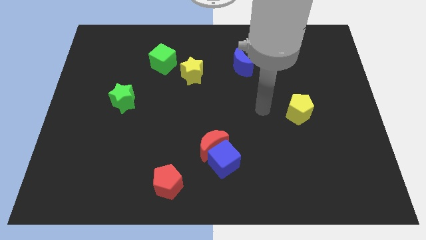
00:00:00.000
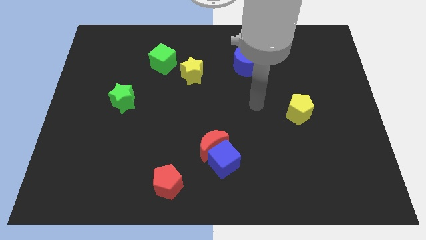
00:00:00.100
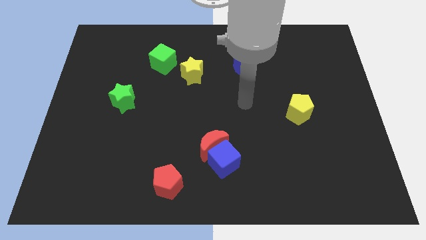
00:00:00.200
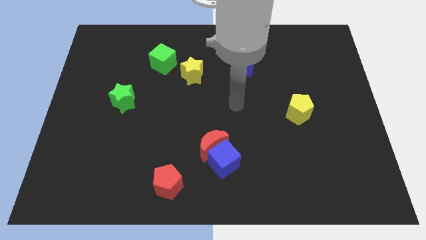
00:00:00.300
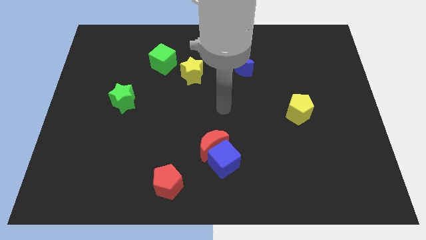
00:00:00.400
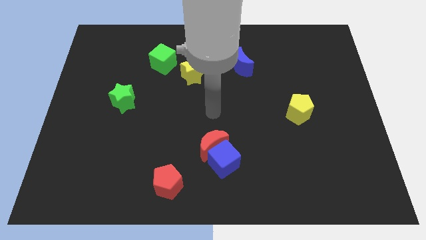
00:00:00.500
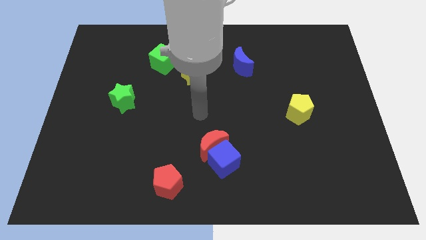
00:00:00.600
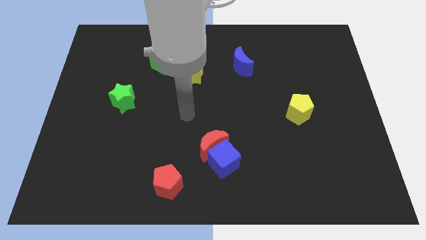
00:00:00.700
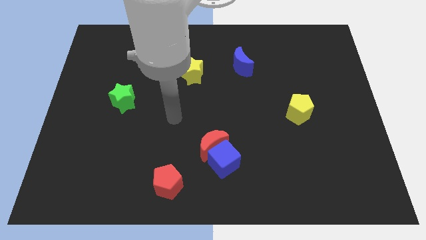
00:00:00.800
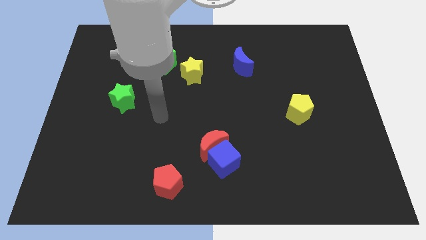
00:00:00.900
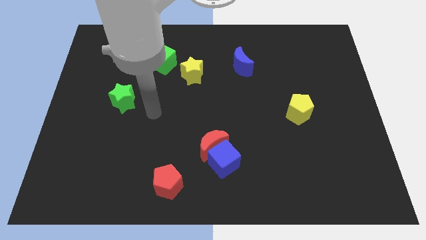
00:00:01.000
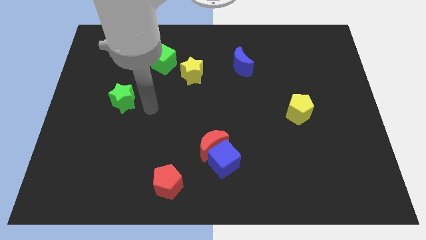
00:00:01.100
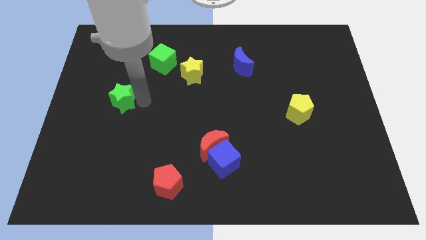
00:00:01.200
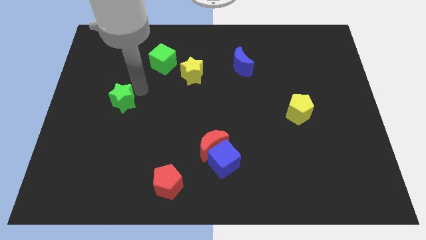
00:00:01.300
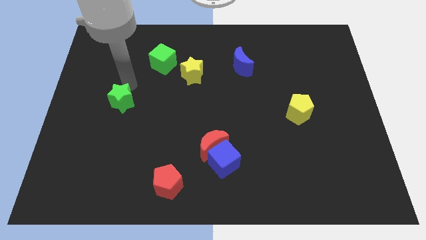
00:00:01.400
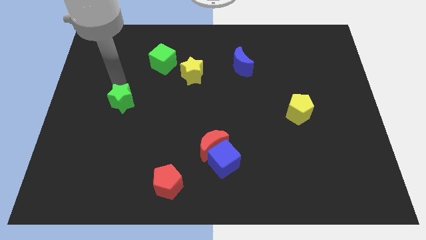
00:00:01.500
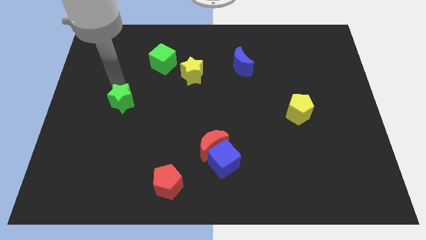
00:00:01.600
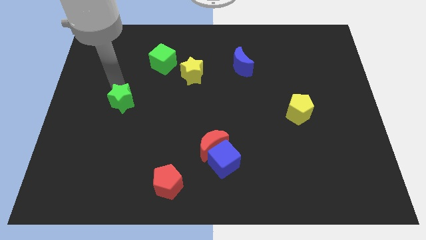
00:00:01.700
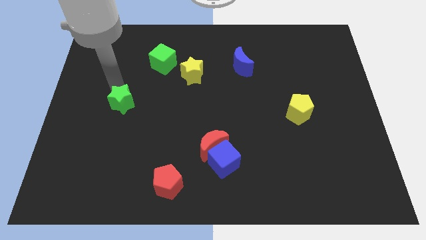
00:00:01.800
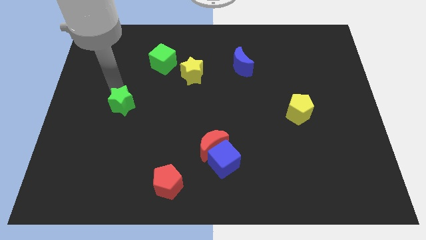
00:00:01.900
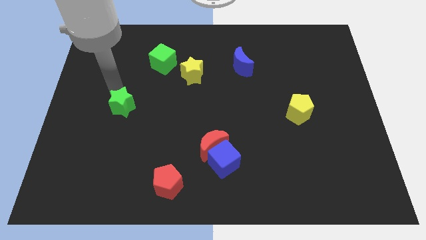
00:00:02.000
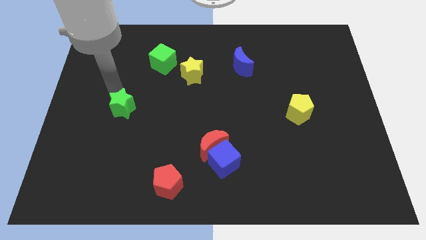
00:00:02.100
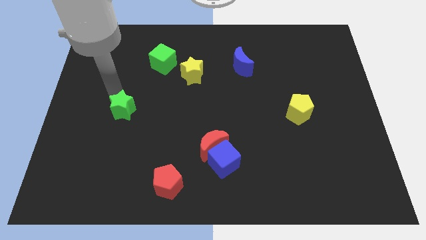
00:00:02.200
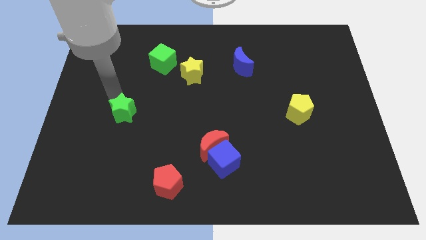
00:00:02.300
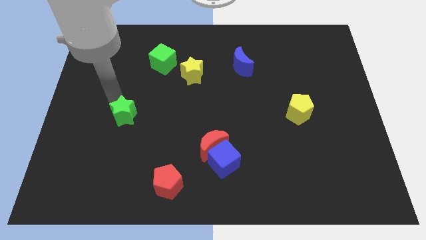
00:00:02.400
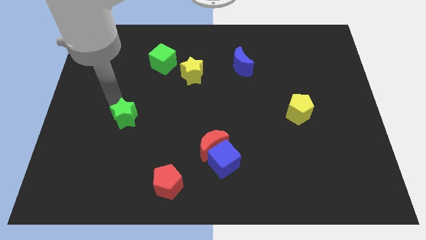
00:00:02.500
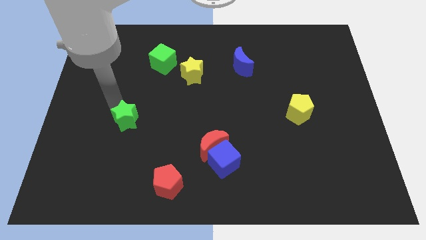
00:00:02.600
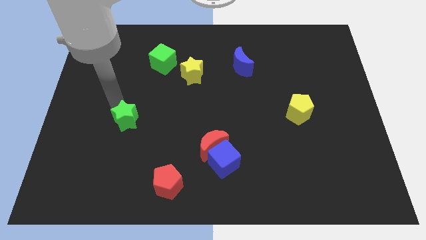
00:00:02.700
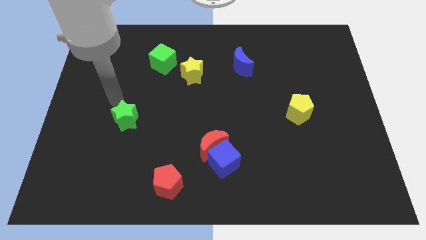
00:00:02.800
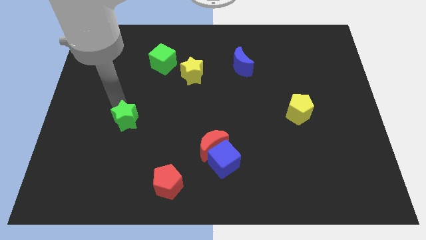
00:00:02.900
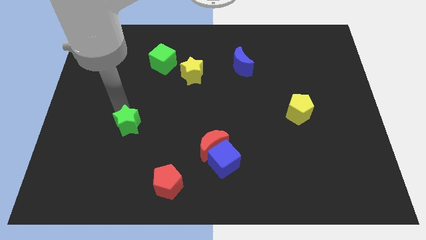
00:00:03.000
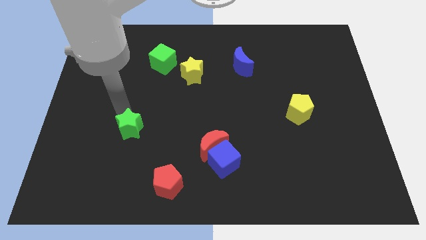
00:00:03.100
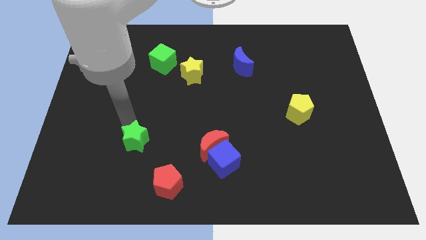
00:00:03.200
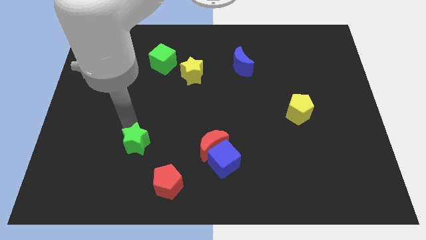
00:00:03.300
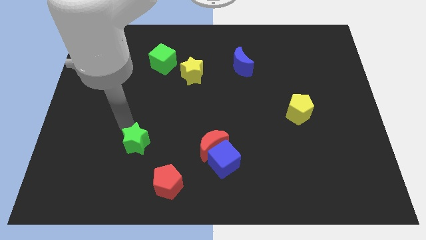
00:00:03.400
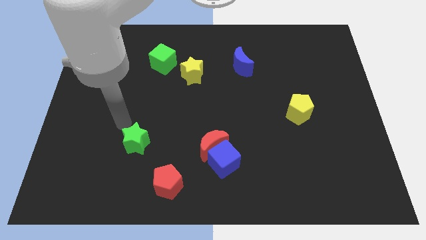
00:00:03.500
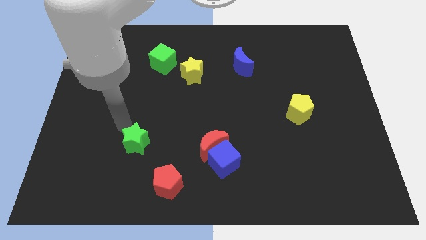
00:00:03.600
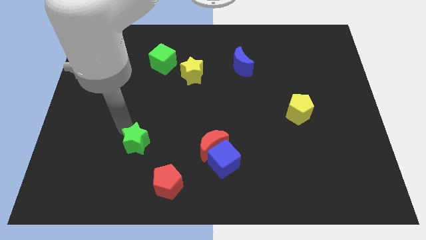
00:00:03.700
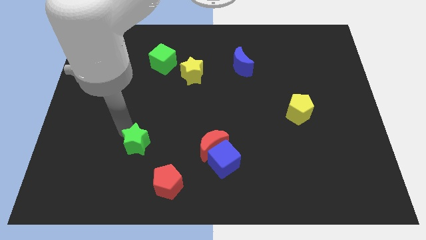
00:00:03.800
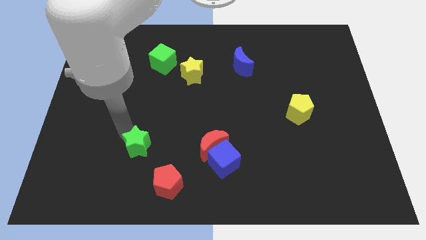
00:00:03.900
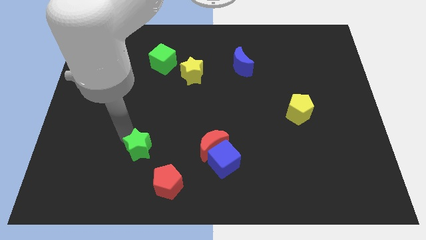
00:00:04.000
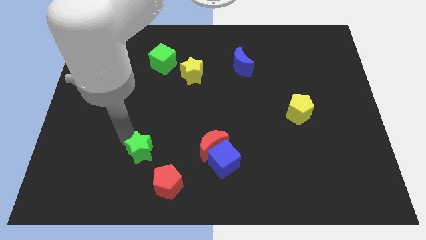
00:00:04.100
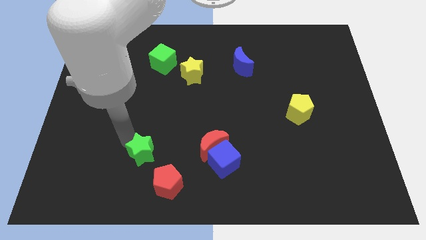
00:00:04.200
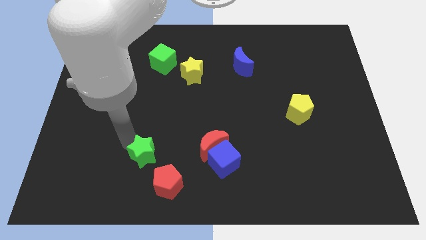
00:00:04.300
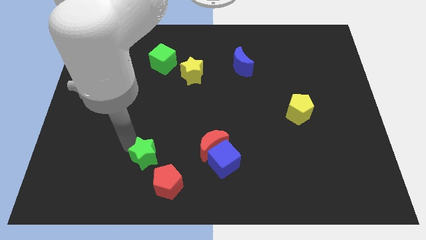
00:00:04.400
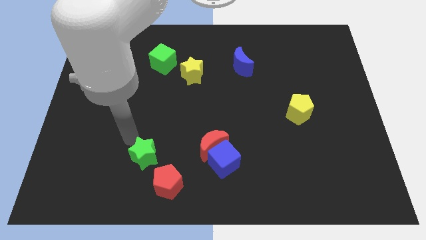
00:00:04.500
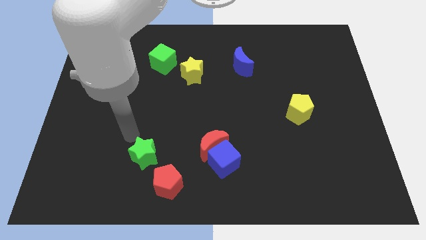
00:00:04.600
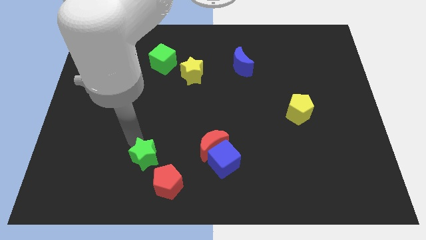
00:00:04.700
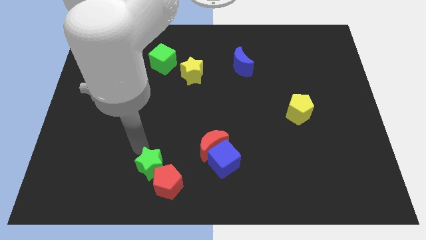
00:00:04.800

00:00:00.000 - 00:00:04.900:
move the green star close to the red pentagon

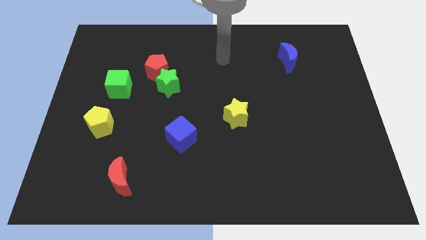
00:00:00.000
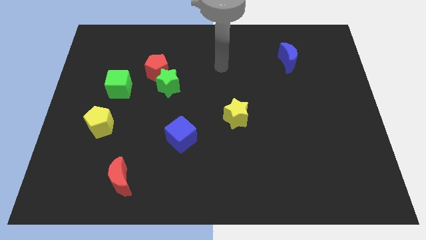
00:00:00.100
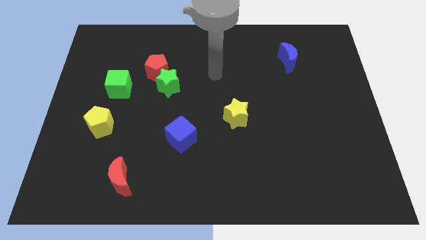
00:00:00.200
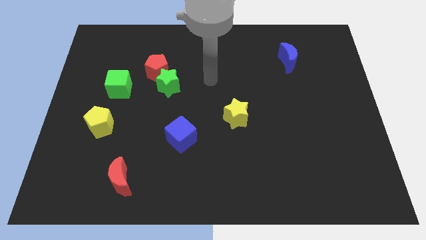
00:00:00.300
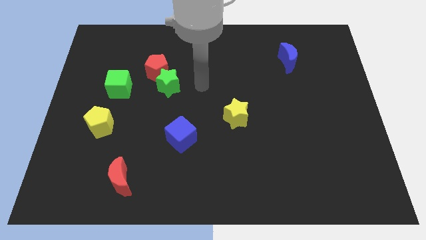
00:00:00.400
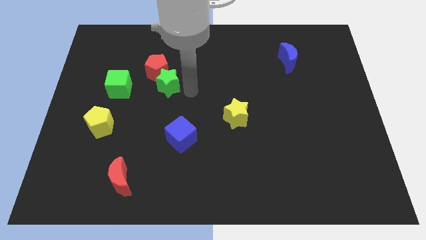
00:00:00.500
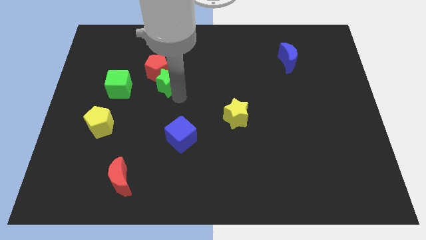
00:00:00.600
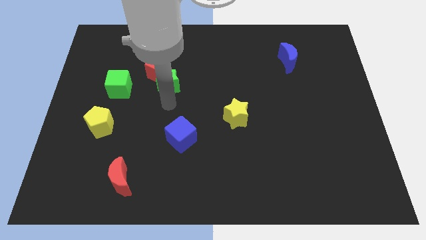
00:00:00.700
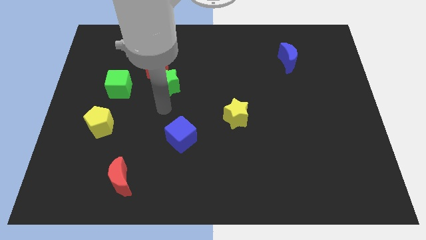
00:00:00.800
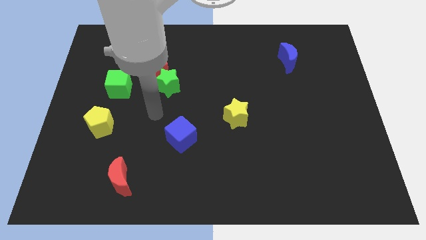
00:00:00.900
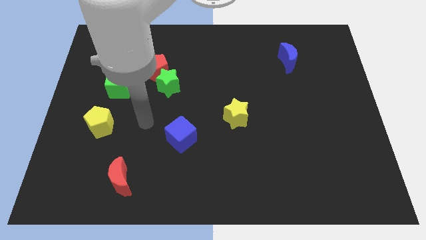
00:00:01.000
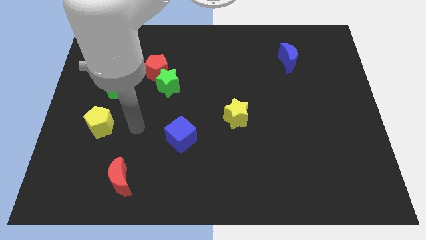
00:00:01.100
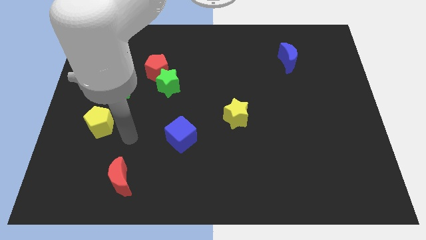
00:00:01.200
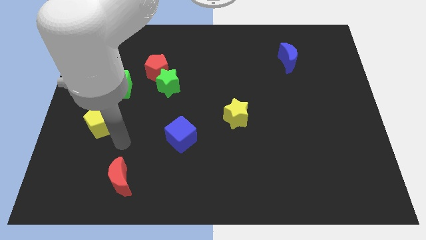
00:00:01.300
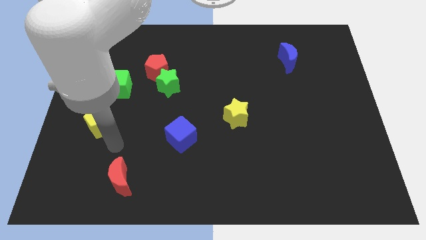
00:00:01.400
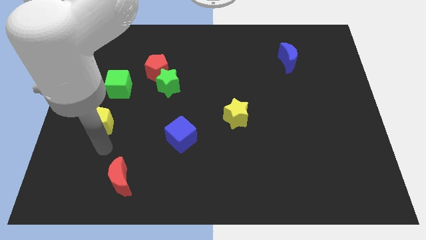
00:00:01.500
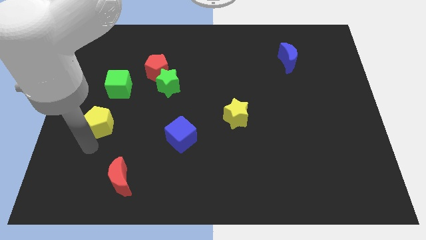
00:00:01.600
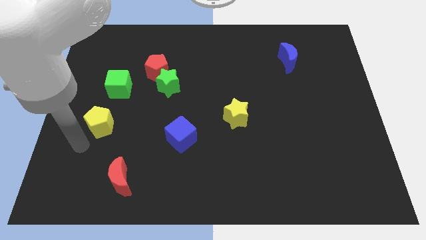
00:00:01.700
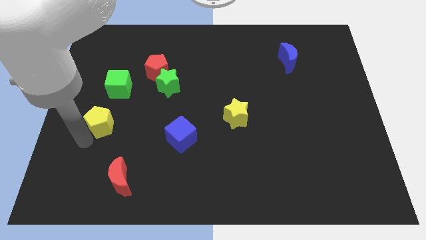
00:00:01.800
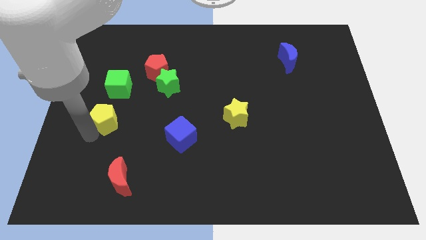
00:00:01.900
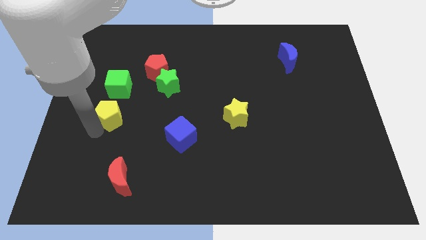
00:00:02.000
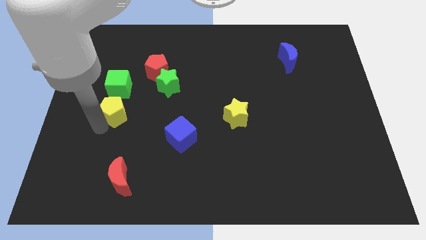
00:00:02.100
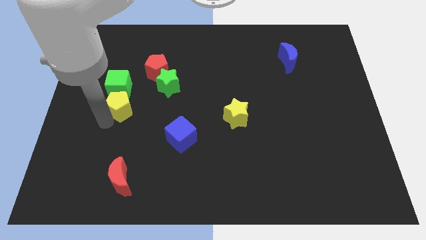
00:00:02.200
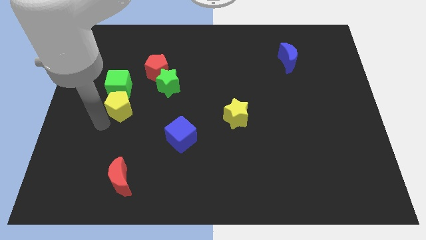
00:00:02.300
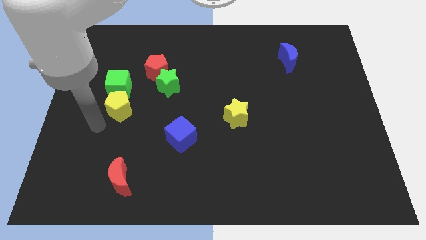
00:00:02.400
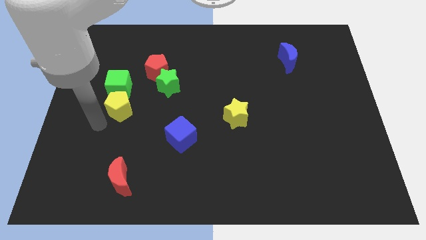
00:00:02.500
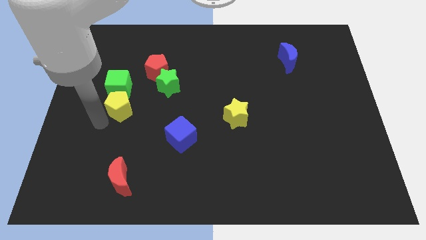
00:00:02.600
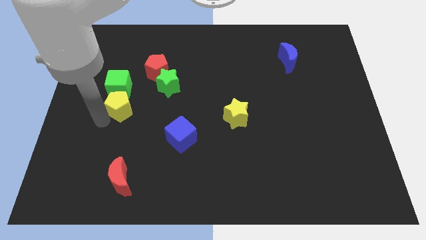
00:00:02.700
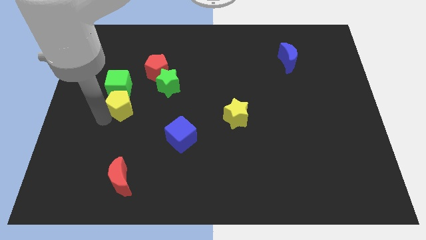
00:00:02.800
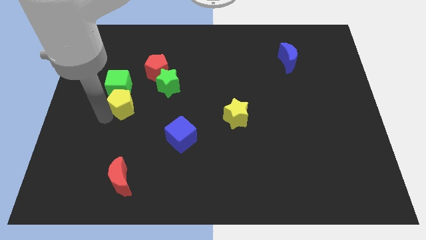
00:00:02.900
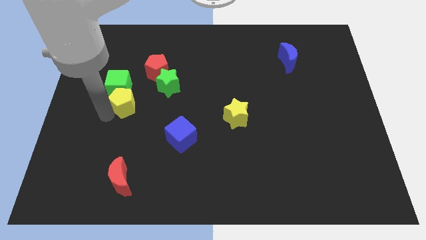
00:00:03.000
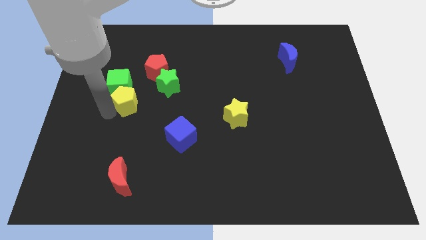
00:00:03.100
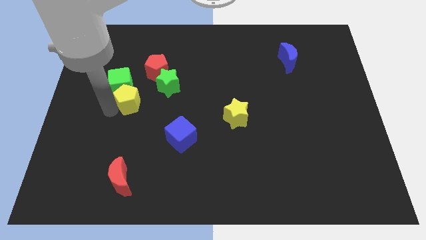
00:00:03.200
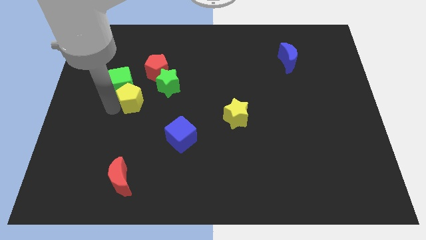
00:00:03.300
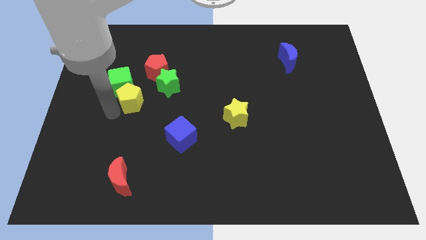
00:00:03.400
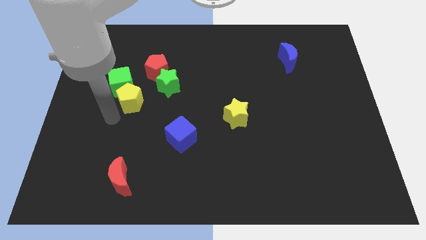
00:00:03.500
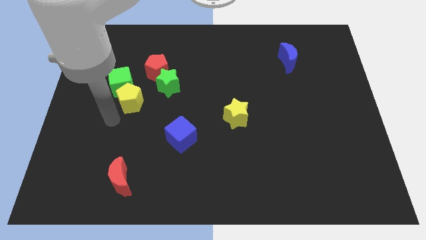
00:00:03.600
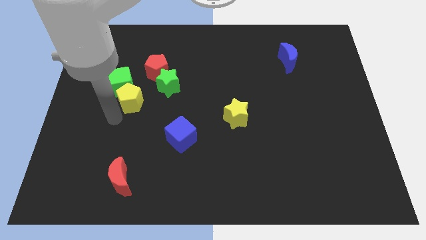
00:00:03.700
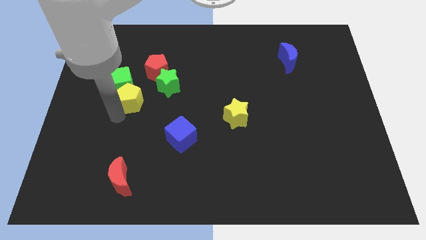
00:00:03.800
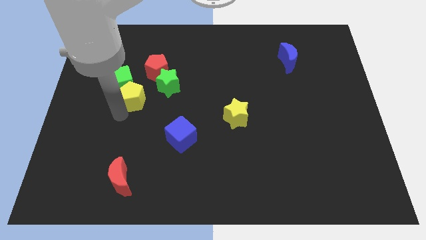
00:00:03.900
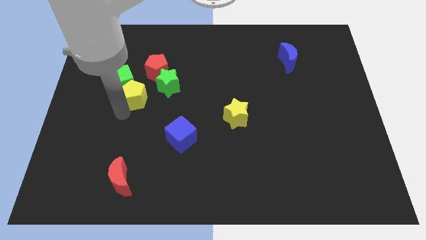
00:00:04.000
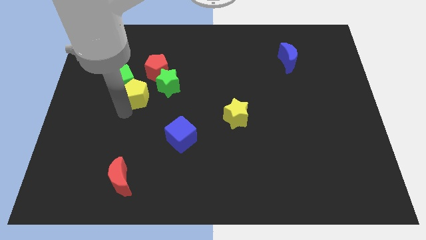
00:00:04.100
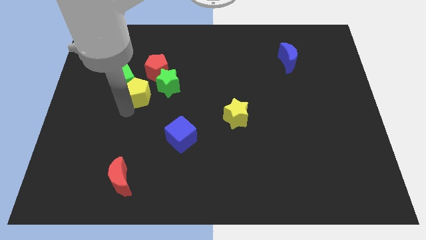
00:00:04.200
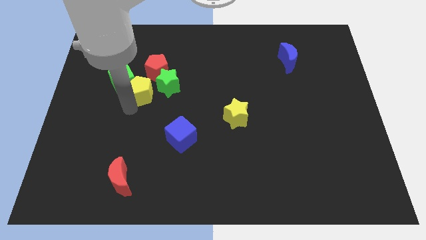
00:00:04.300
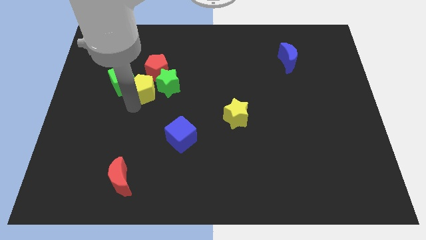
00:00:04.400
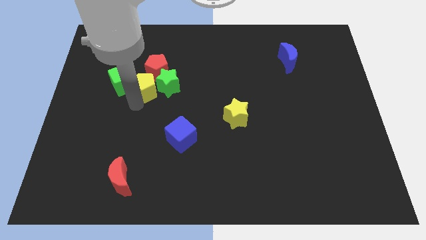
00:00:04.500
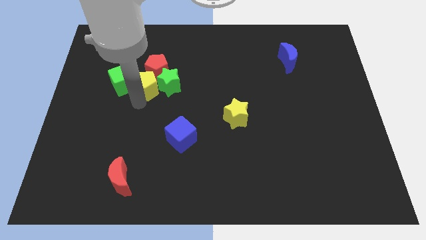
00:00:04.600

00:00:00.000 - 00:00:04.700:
push the yellow pentagon towards the red pentagon
